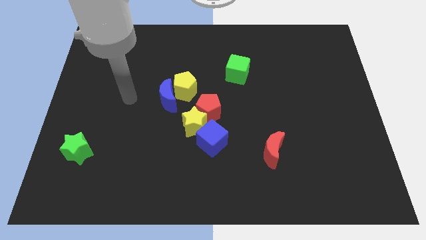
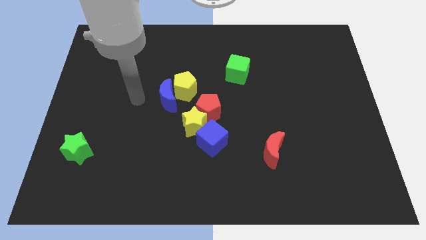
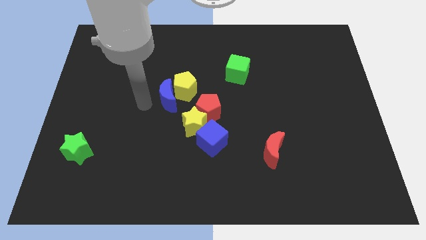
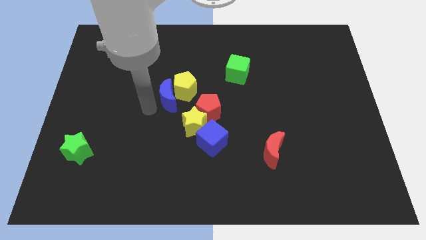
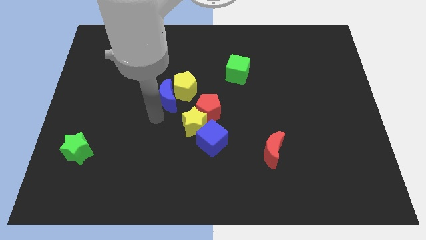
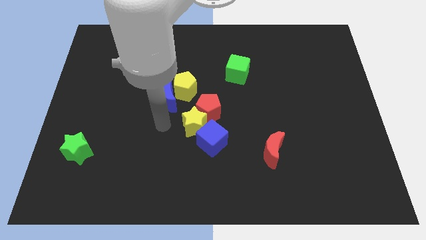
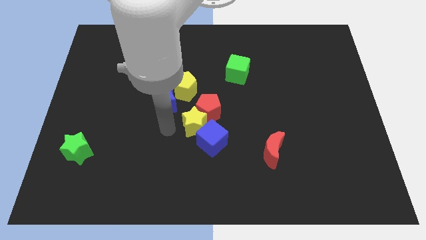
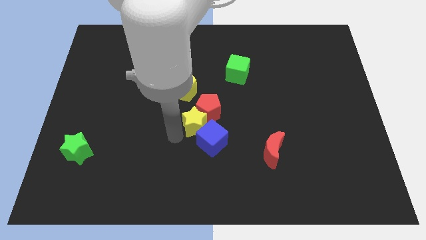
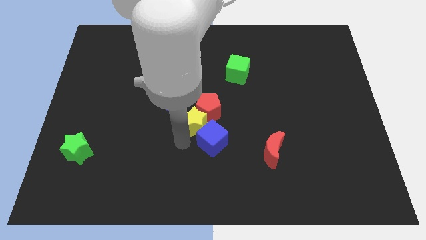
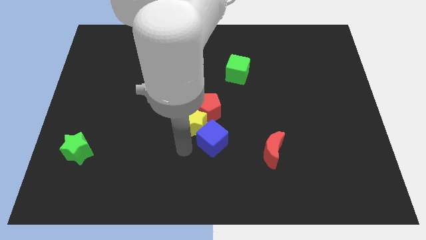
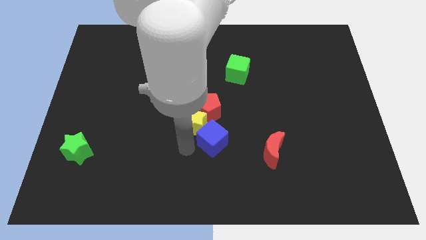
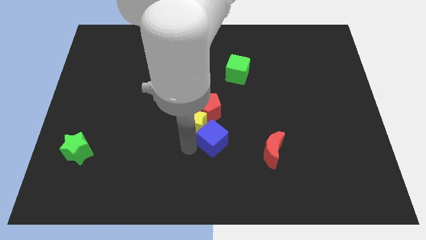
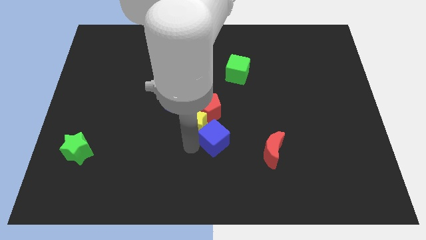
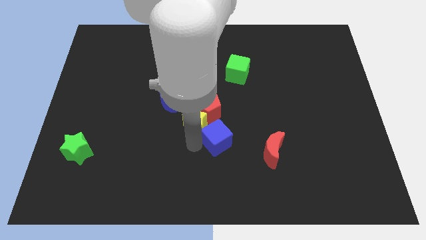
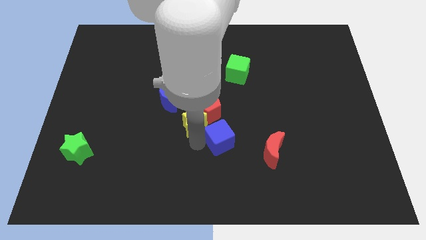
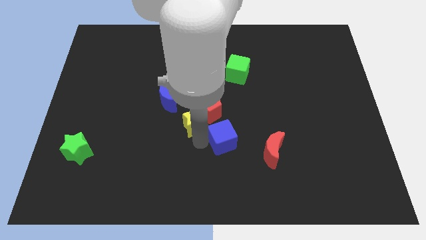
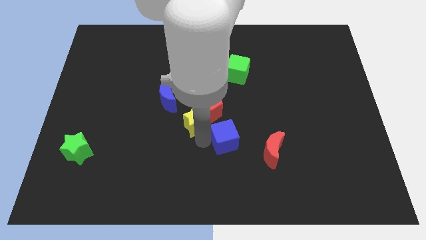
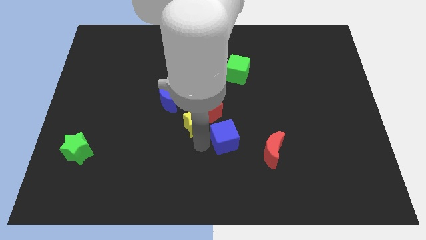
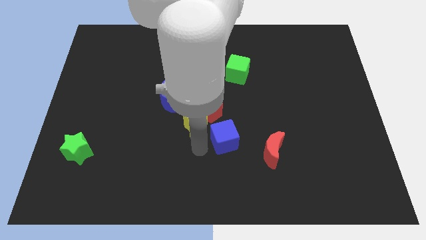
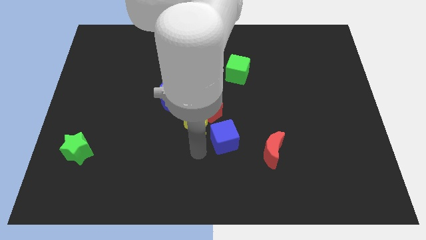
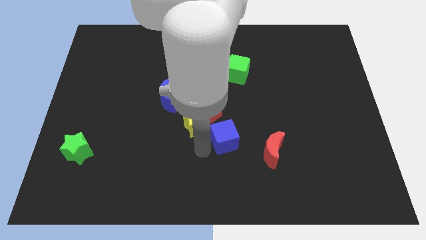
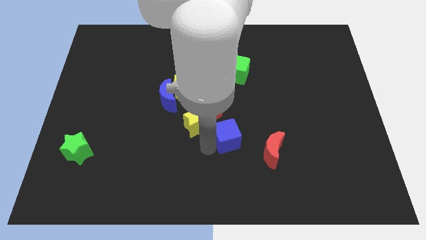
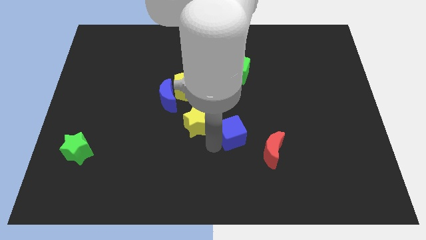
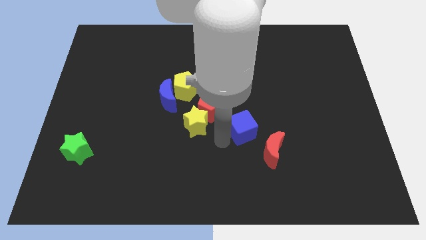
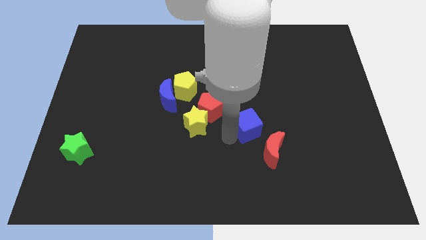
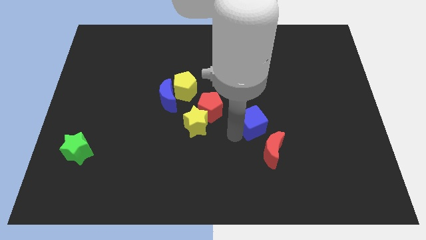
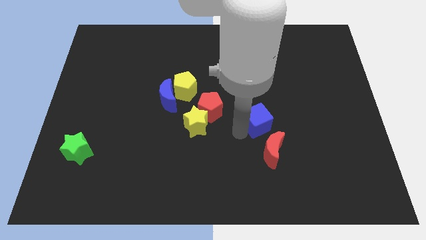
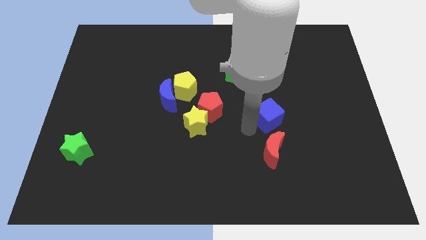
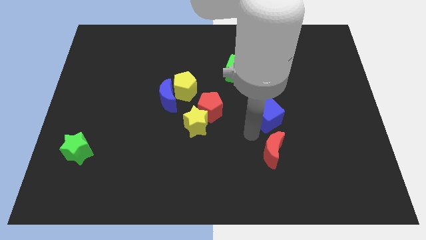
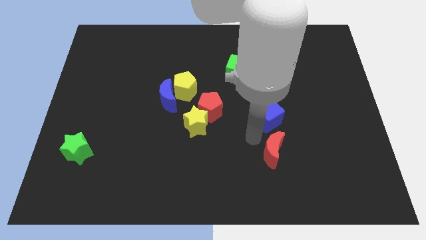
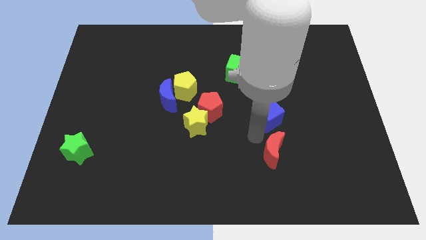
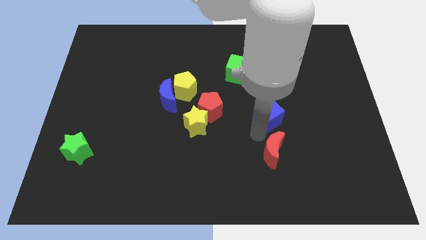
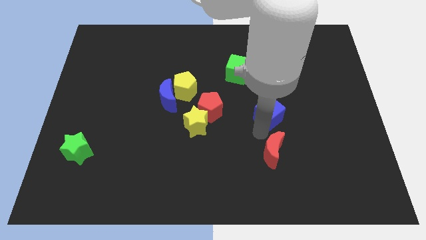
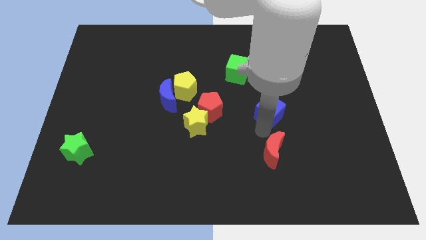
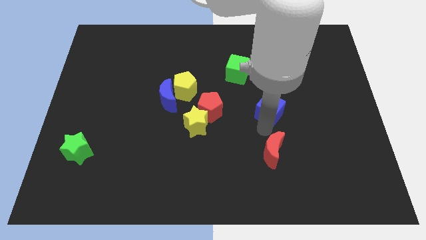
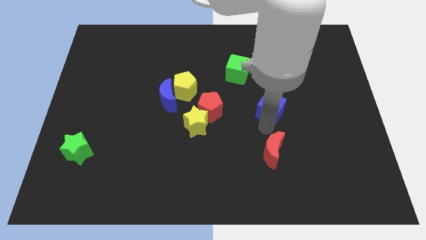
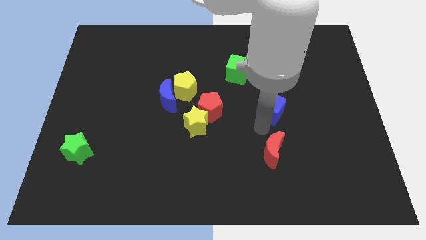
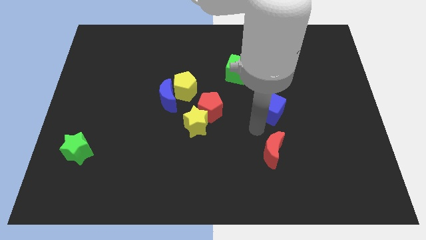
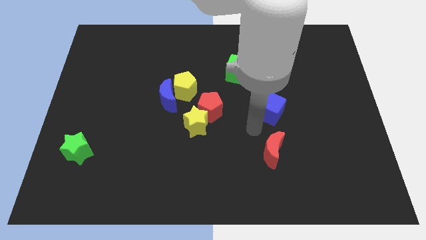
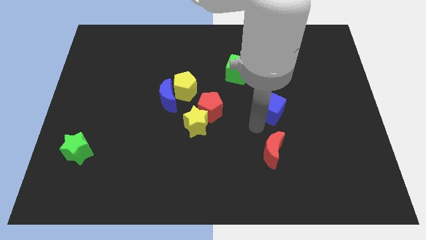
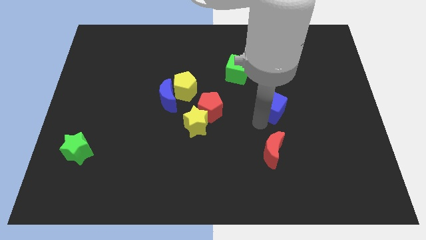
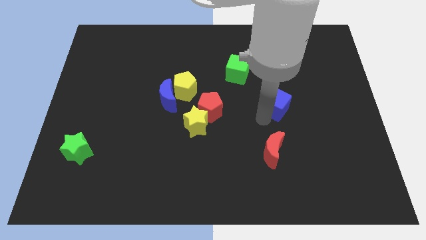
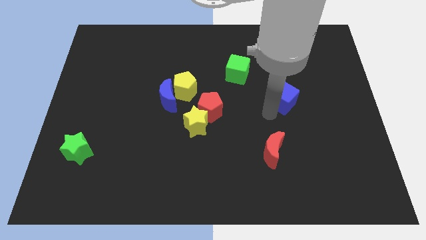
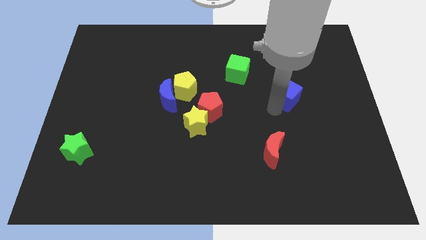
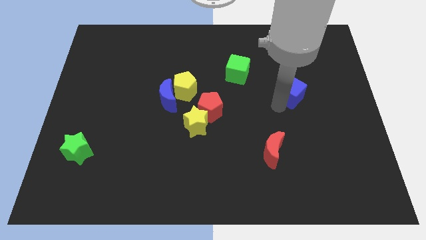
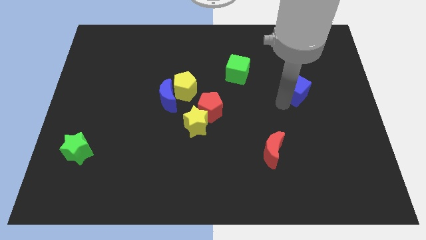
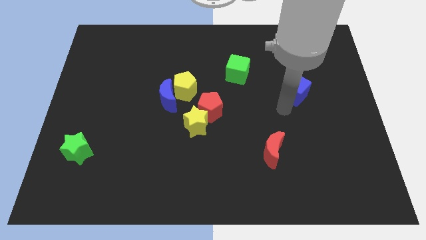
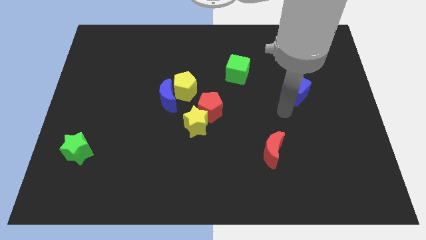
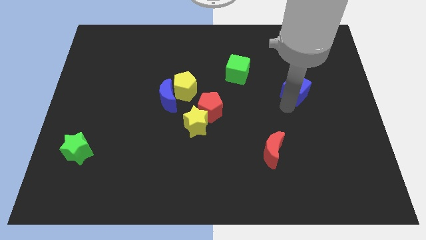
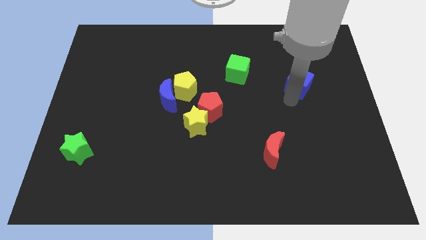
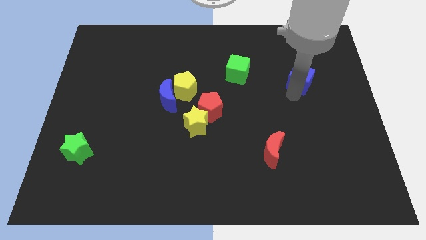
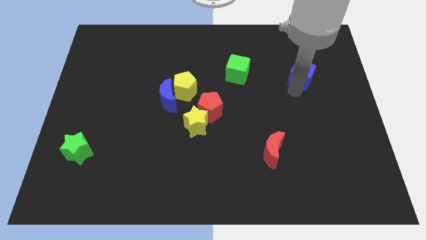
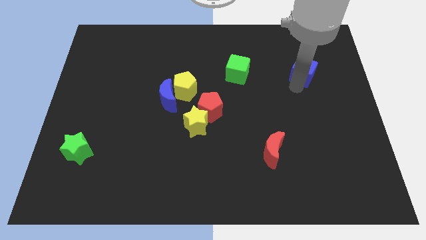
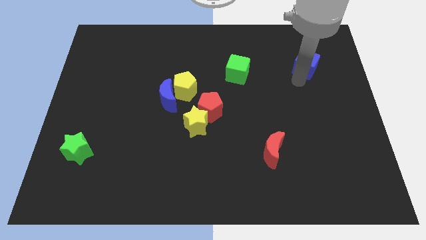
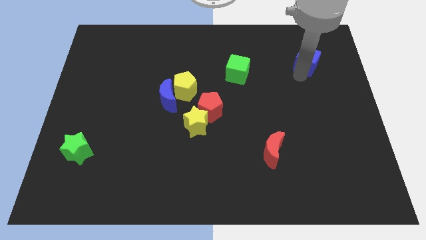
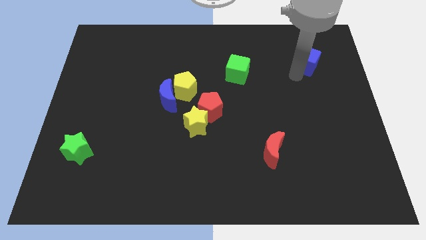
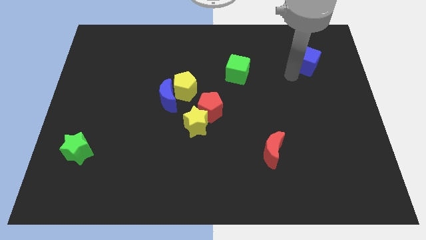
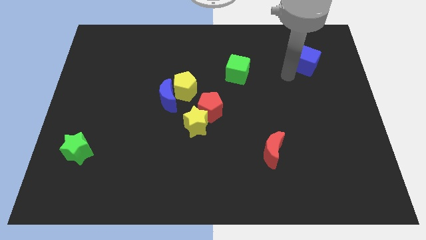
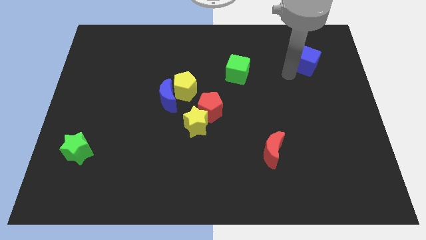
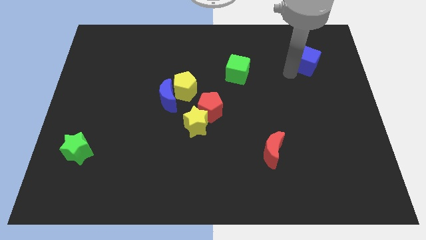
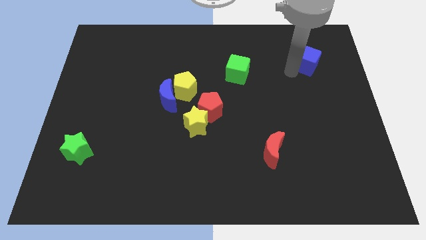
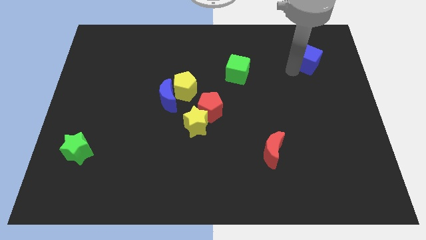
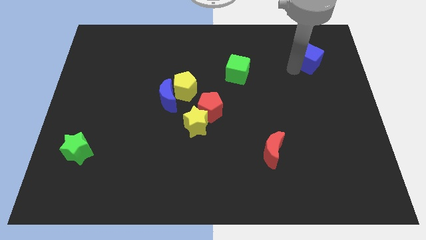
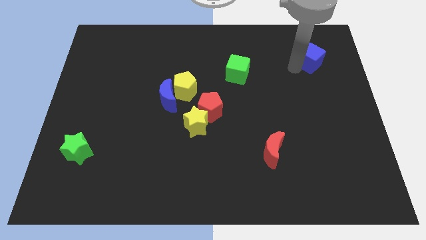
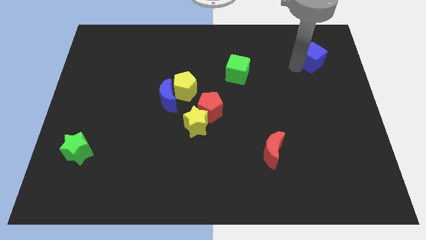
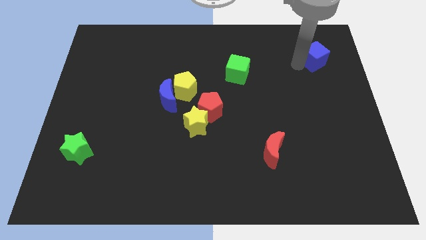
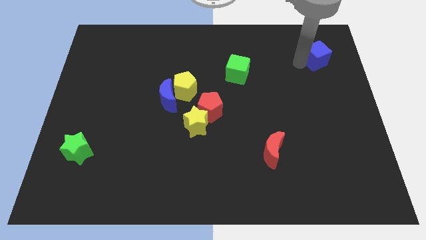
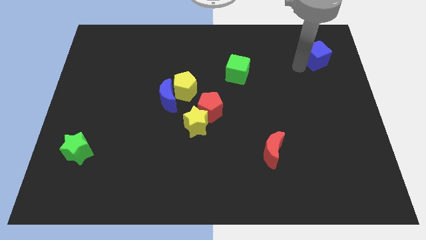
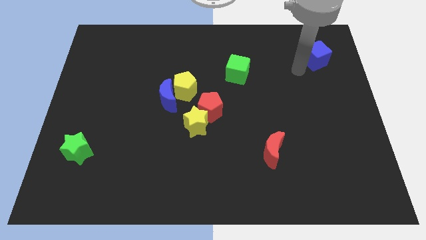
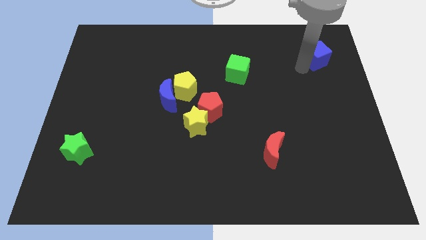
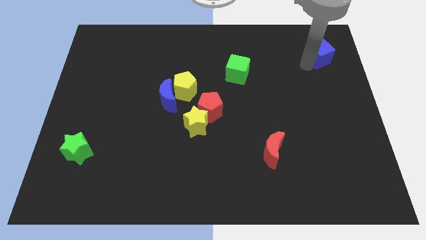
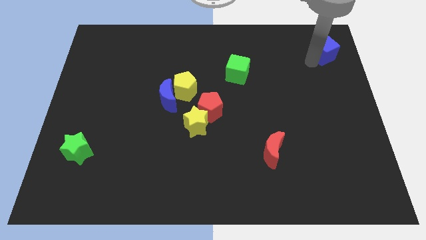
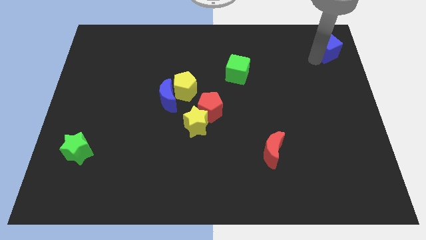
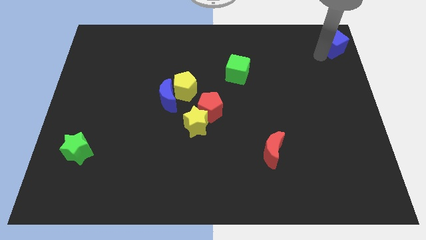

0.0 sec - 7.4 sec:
put the blue cube to the top right corner

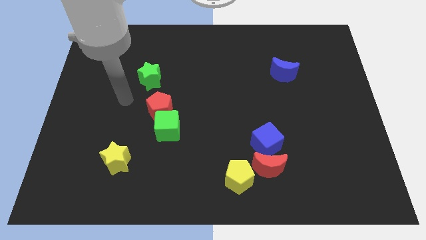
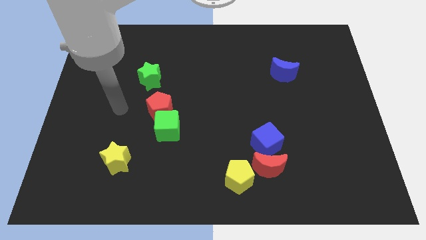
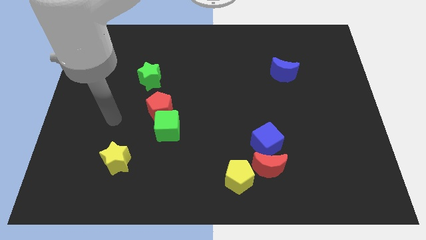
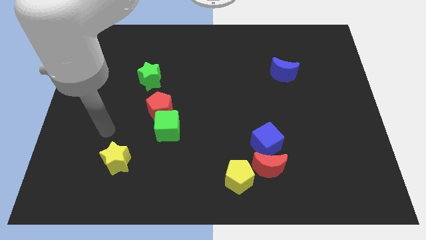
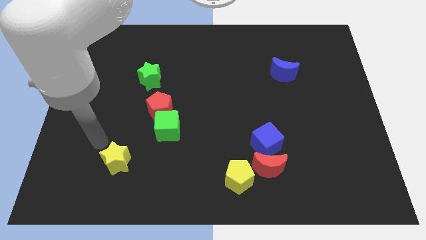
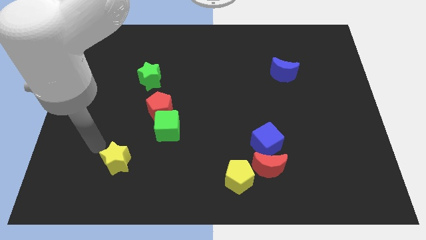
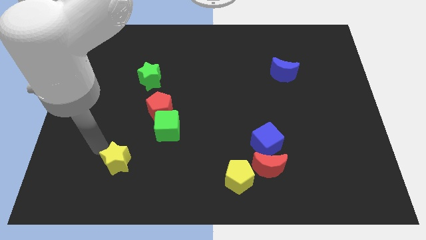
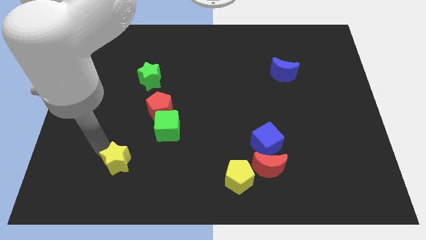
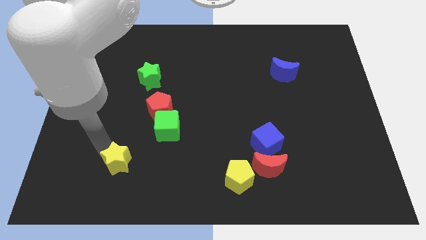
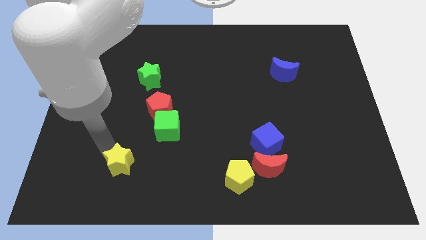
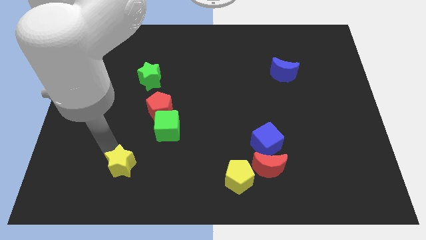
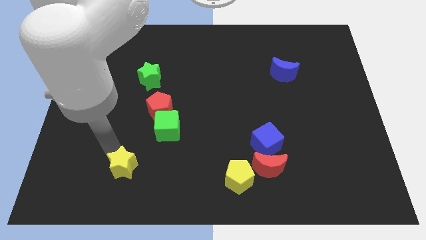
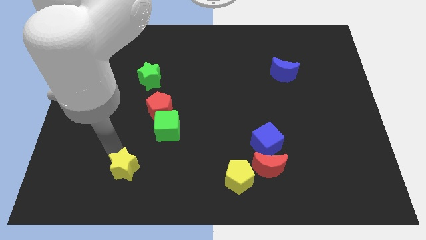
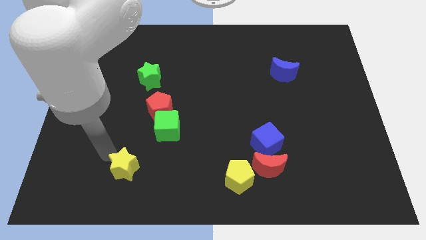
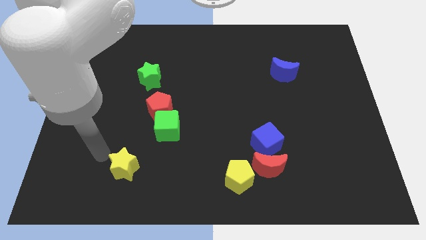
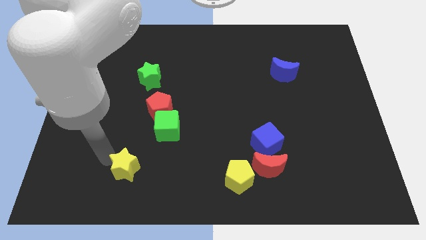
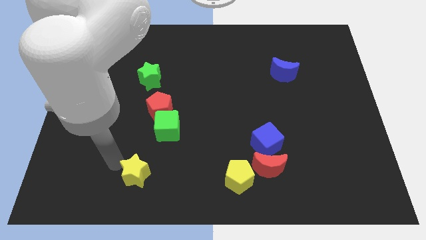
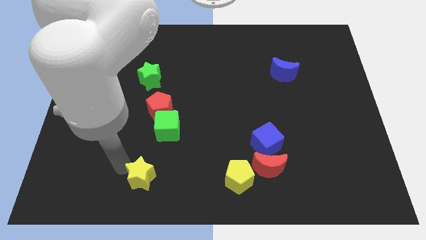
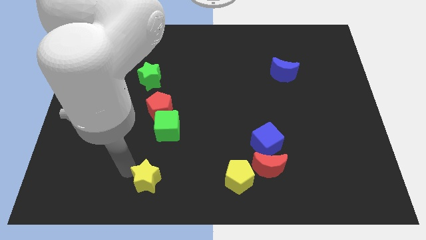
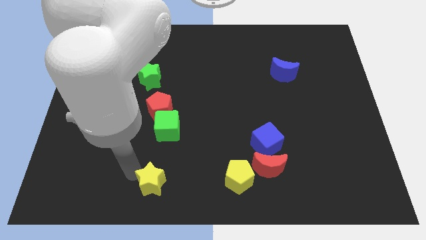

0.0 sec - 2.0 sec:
push the yellow star to the bottom side
